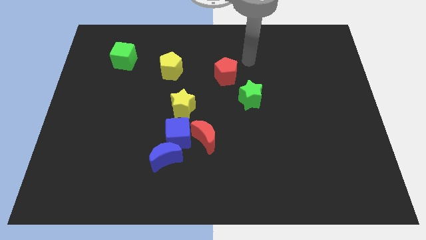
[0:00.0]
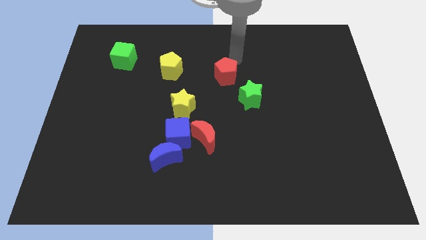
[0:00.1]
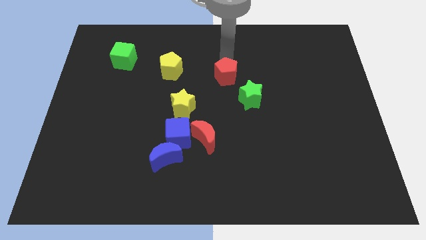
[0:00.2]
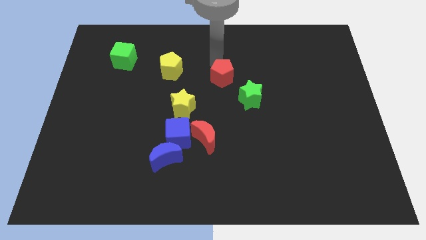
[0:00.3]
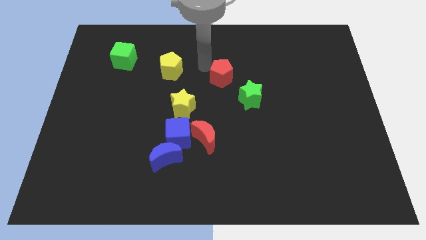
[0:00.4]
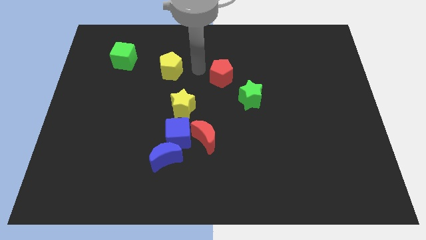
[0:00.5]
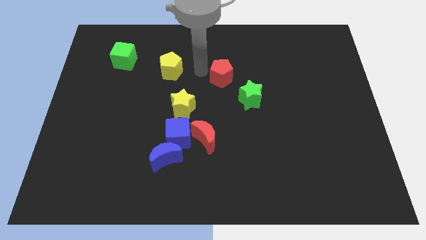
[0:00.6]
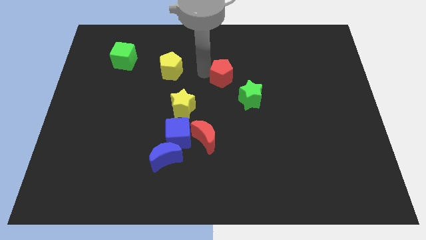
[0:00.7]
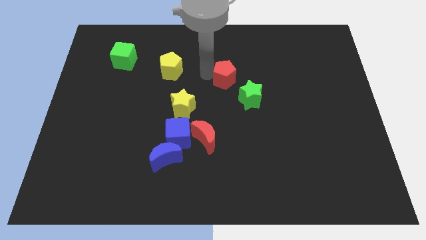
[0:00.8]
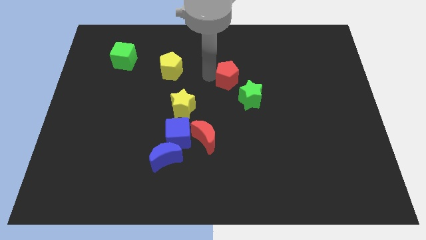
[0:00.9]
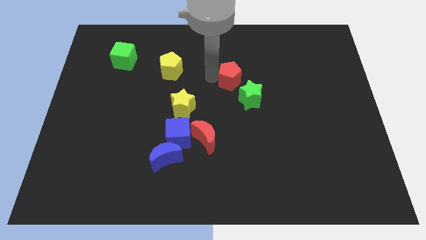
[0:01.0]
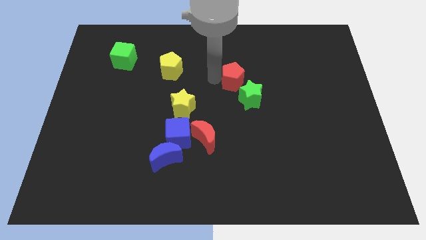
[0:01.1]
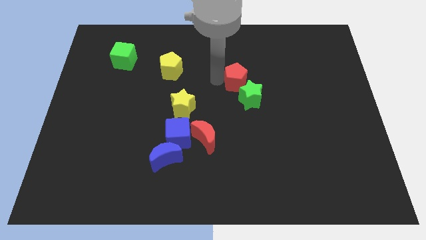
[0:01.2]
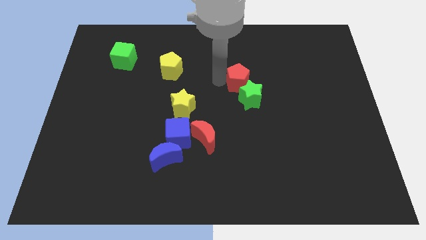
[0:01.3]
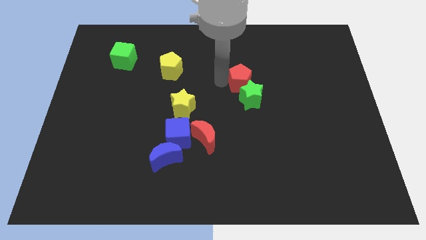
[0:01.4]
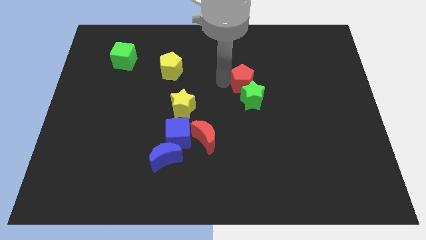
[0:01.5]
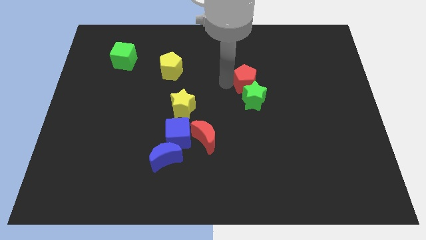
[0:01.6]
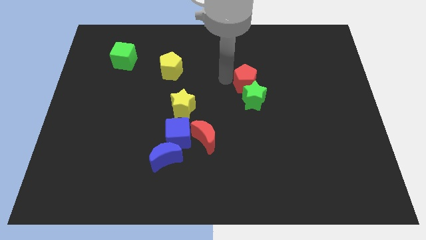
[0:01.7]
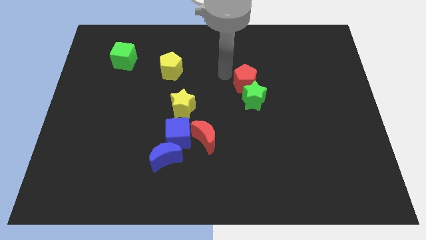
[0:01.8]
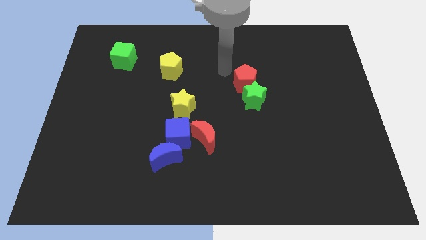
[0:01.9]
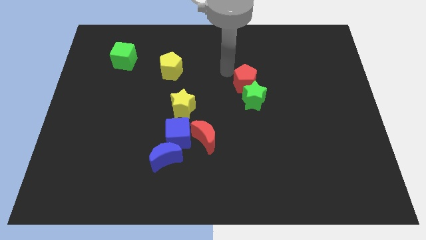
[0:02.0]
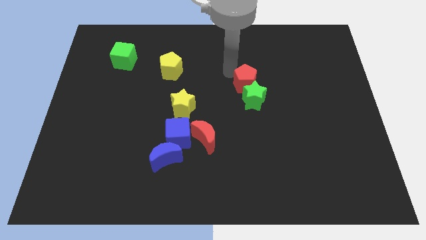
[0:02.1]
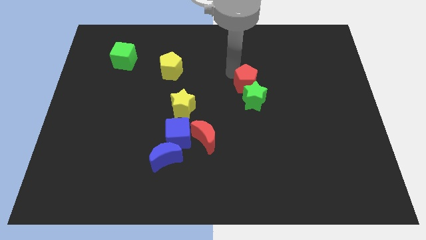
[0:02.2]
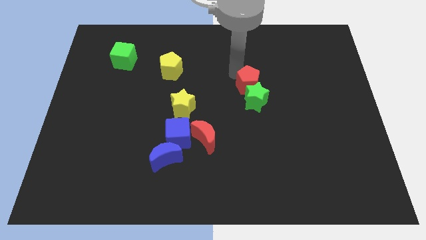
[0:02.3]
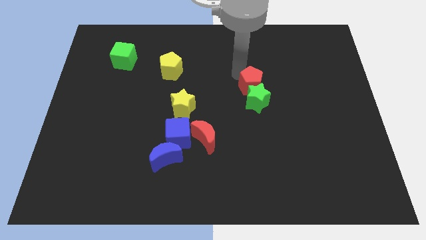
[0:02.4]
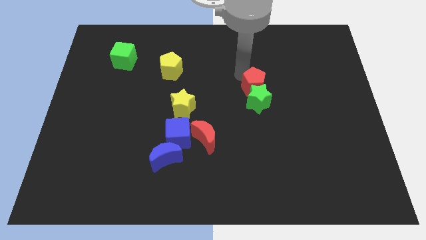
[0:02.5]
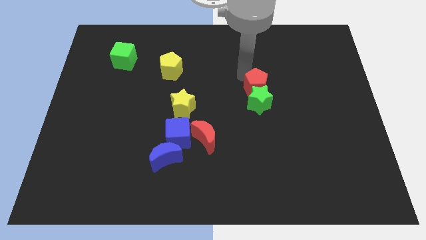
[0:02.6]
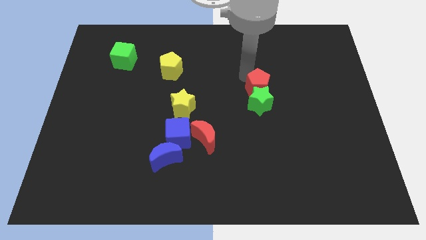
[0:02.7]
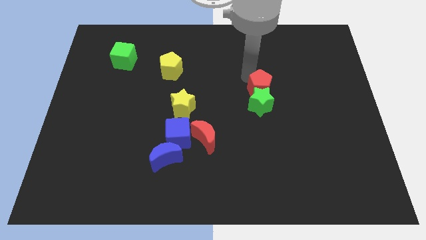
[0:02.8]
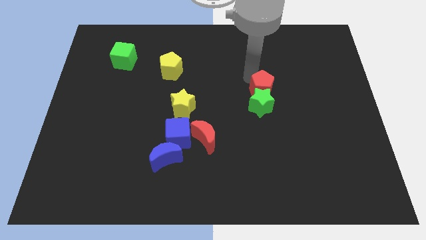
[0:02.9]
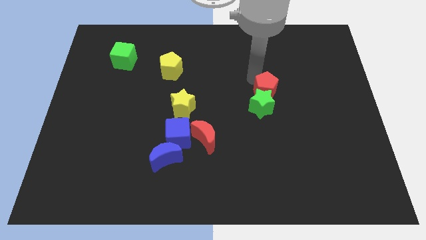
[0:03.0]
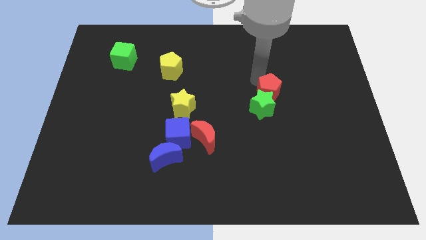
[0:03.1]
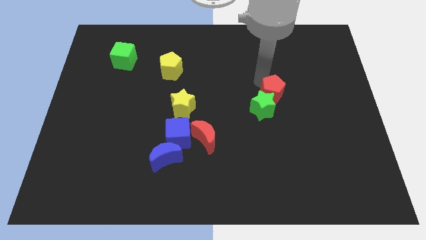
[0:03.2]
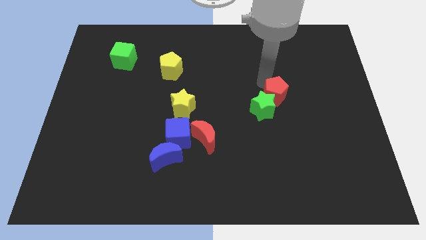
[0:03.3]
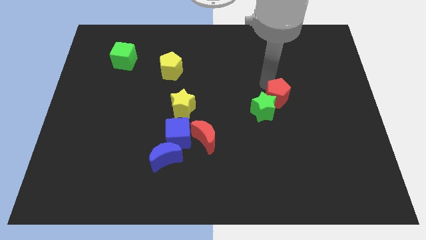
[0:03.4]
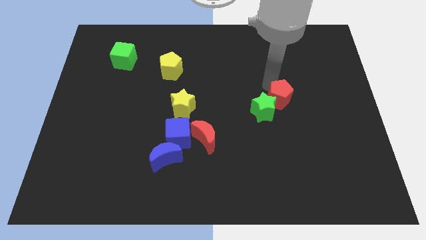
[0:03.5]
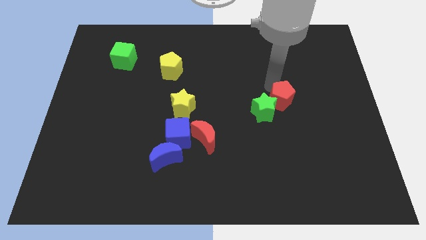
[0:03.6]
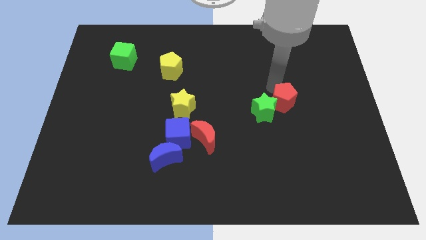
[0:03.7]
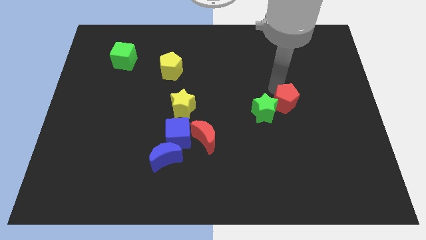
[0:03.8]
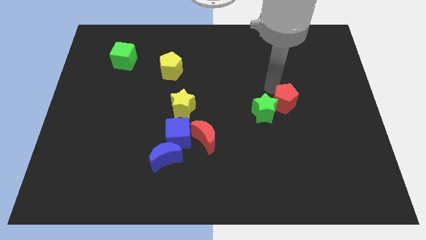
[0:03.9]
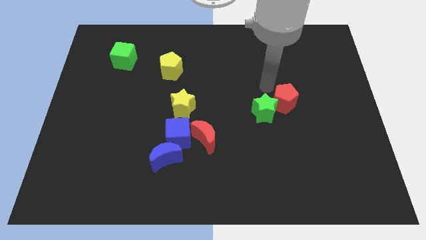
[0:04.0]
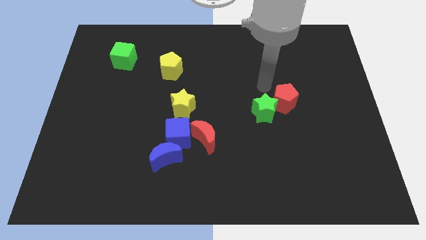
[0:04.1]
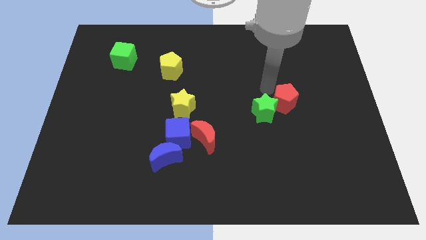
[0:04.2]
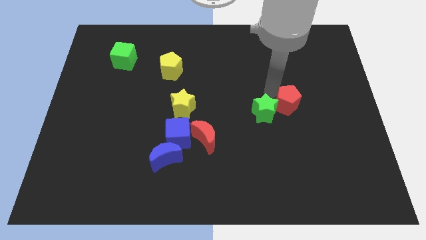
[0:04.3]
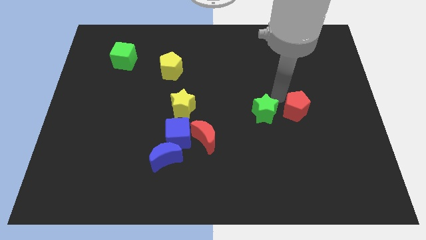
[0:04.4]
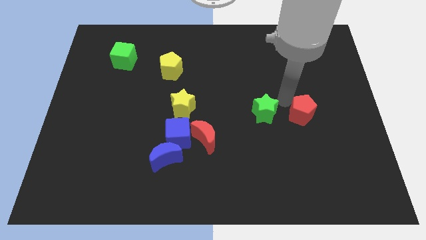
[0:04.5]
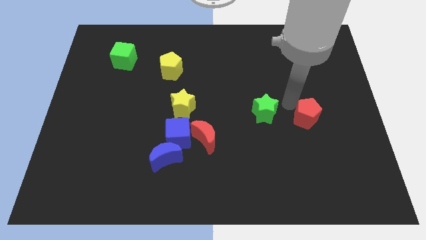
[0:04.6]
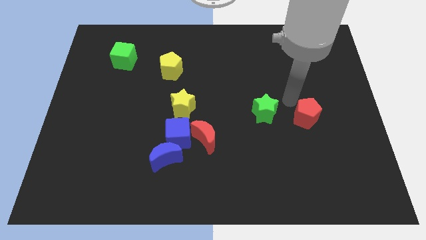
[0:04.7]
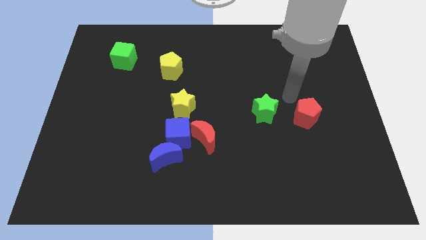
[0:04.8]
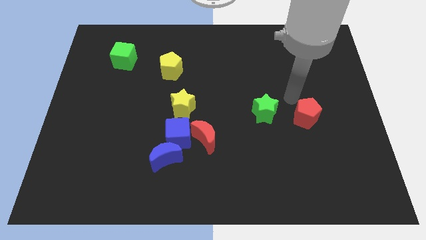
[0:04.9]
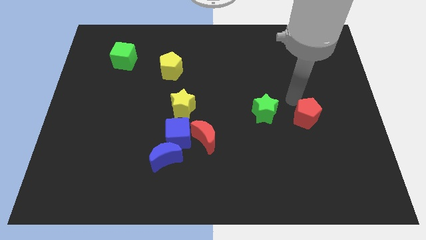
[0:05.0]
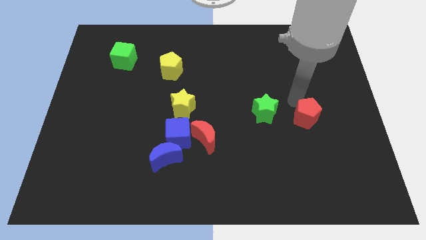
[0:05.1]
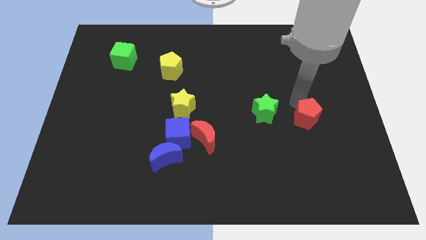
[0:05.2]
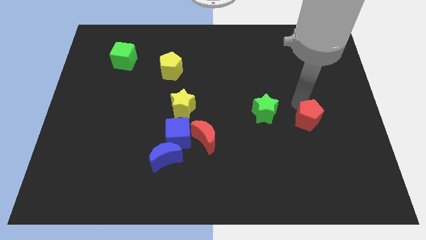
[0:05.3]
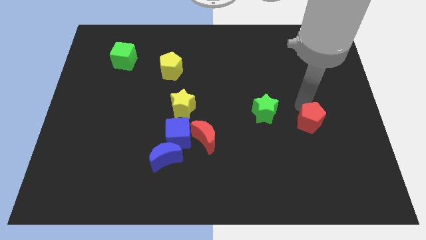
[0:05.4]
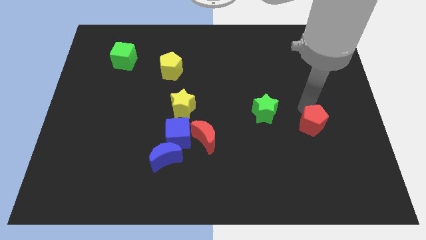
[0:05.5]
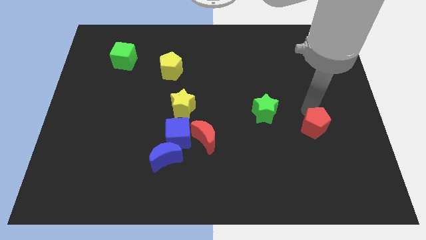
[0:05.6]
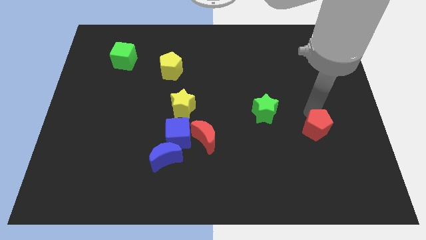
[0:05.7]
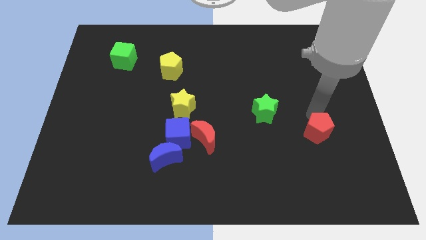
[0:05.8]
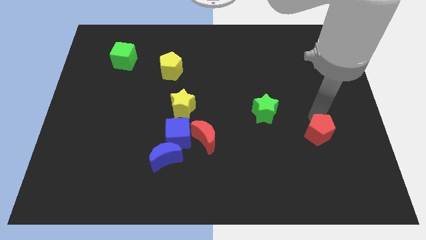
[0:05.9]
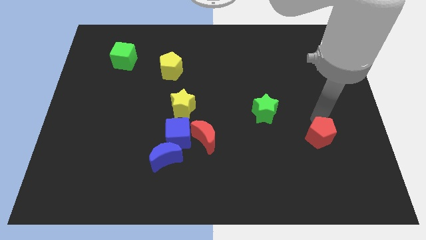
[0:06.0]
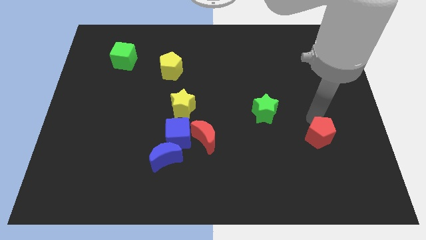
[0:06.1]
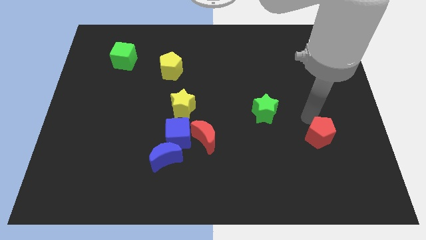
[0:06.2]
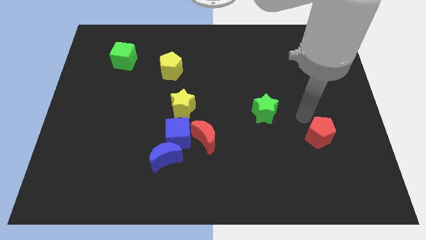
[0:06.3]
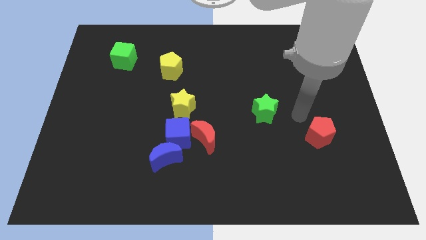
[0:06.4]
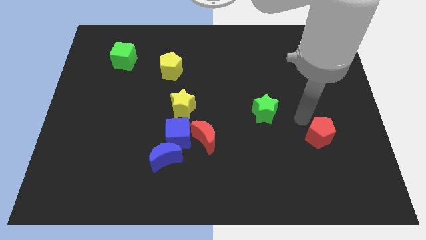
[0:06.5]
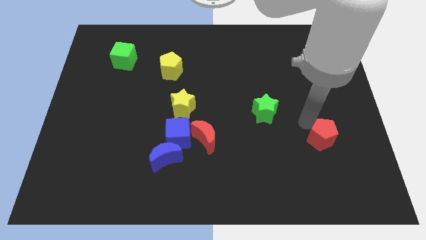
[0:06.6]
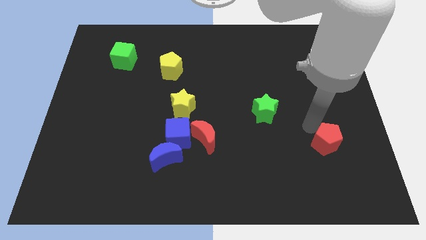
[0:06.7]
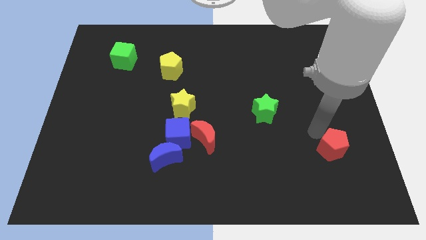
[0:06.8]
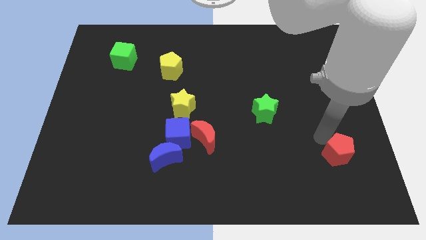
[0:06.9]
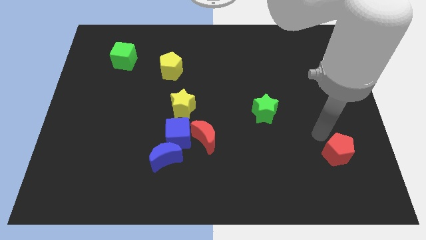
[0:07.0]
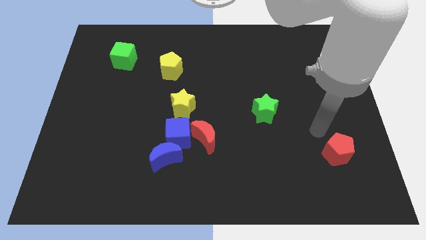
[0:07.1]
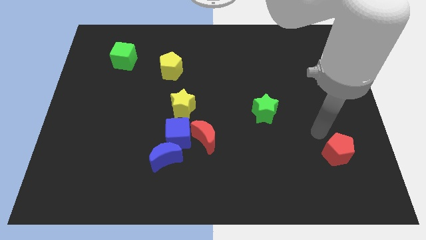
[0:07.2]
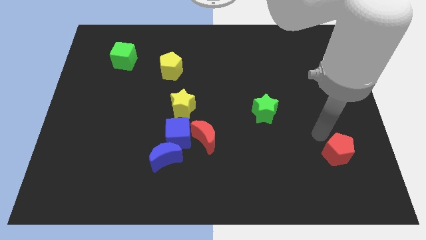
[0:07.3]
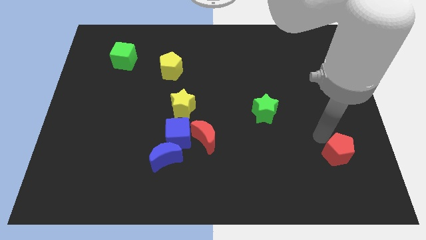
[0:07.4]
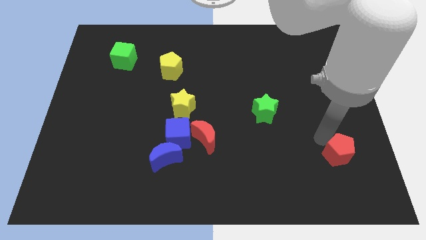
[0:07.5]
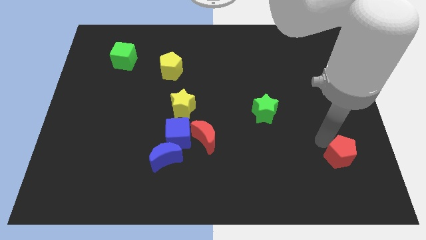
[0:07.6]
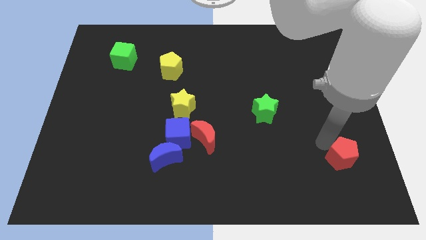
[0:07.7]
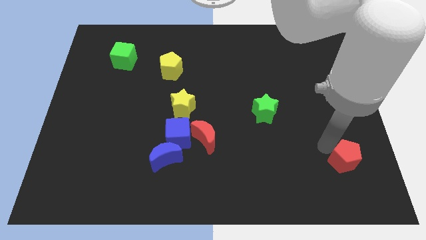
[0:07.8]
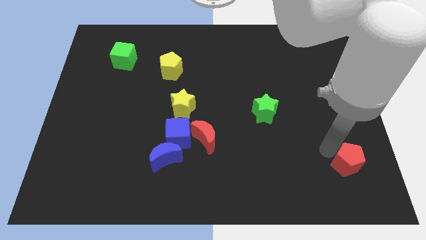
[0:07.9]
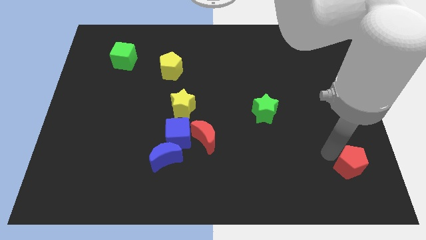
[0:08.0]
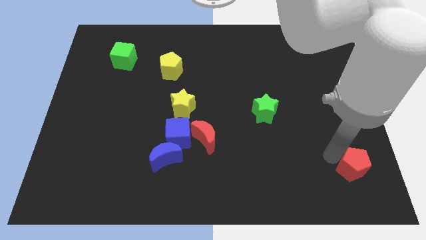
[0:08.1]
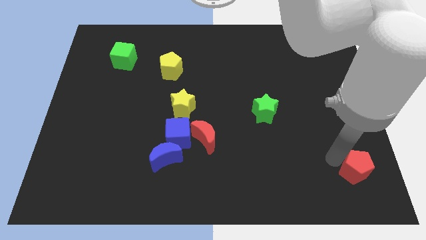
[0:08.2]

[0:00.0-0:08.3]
push the red pentagon to the lower right corner
